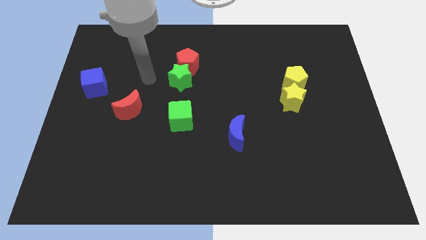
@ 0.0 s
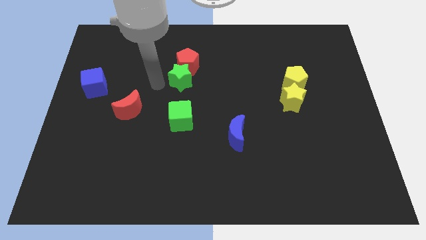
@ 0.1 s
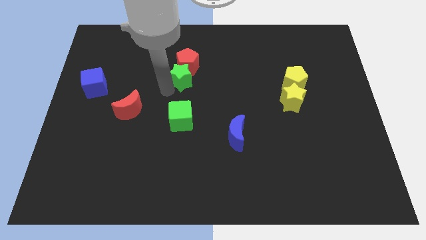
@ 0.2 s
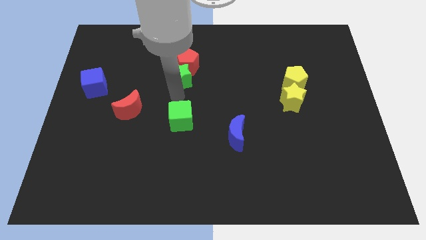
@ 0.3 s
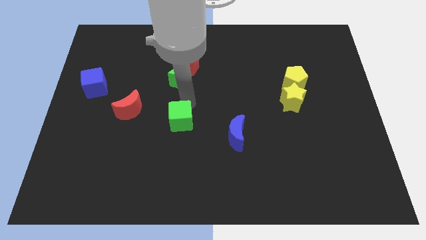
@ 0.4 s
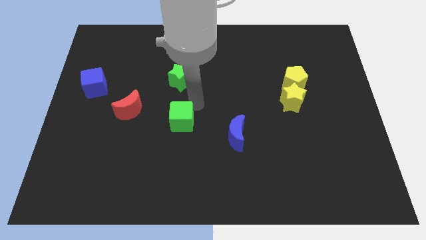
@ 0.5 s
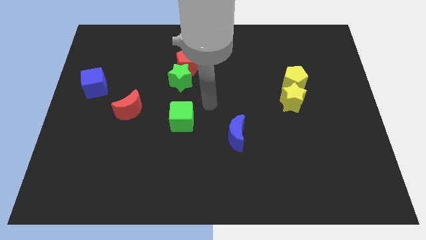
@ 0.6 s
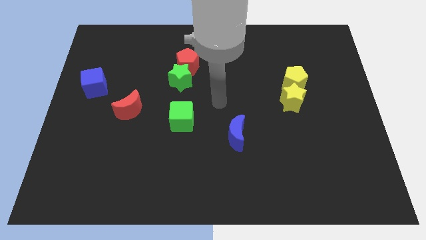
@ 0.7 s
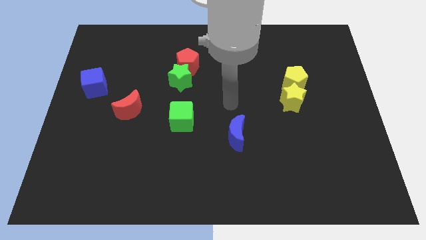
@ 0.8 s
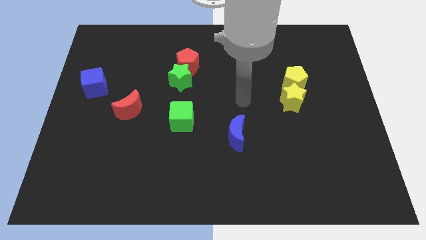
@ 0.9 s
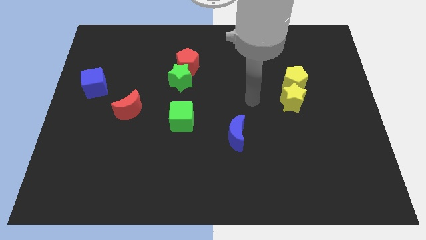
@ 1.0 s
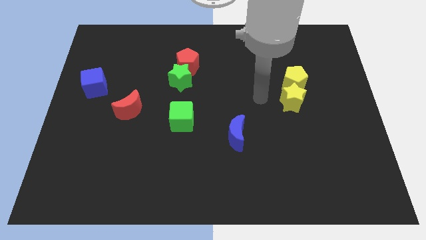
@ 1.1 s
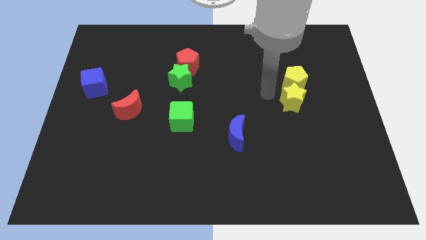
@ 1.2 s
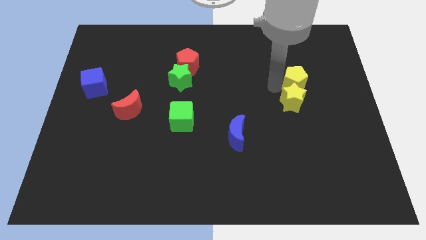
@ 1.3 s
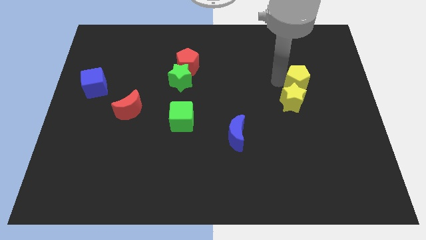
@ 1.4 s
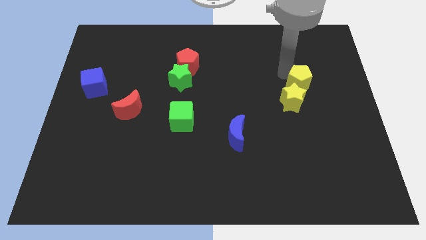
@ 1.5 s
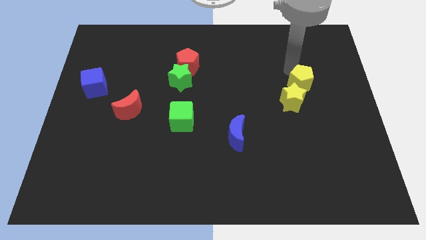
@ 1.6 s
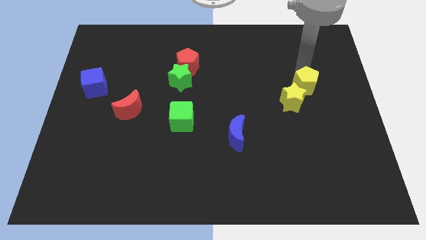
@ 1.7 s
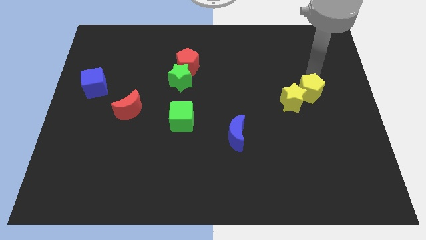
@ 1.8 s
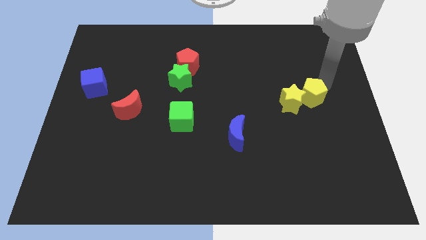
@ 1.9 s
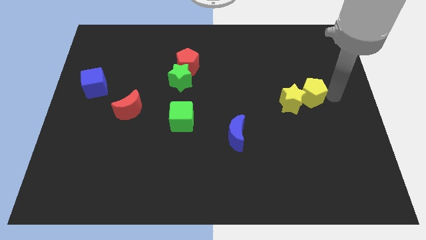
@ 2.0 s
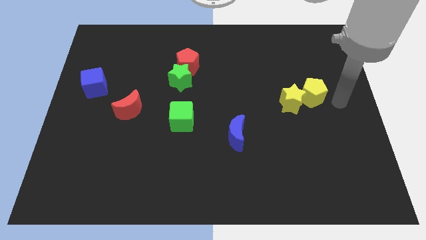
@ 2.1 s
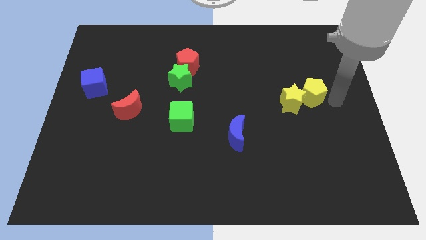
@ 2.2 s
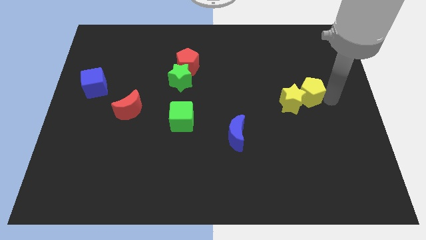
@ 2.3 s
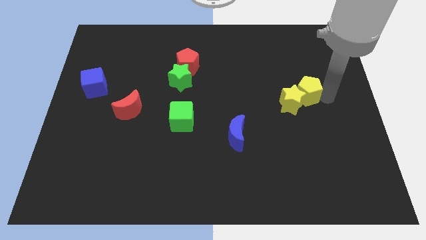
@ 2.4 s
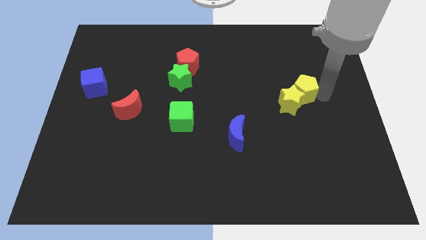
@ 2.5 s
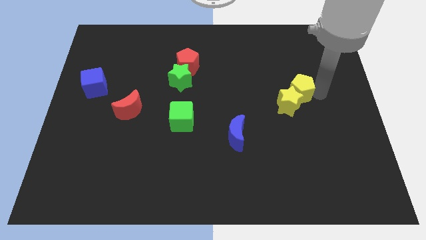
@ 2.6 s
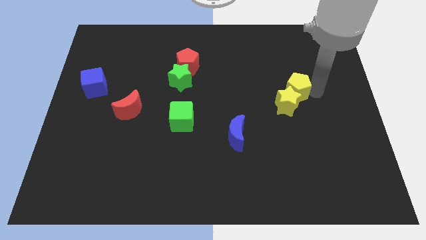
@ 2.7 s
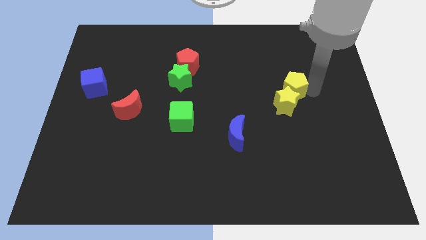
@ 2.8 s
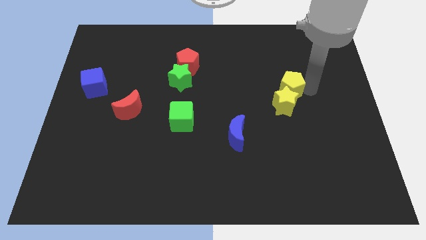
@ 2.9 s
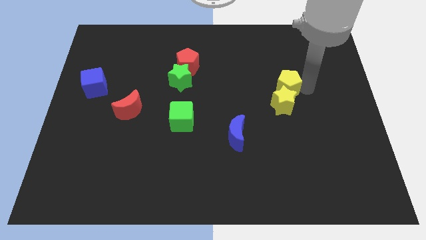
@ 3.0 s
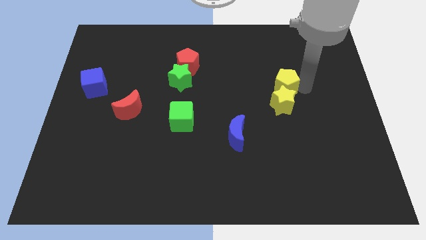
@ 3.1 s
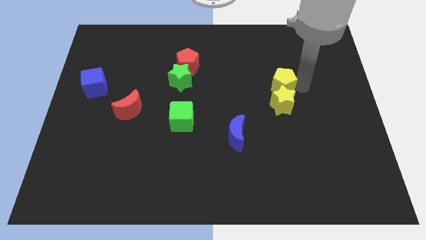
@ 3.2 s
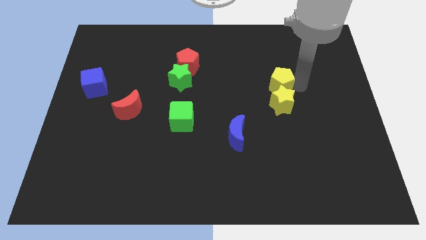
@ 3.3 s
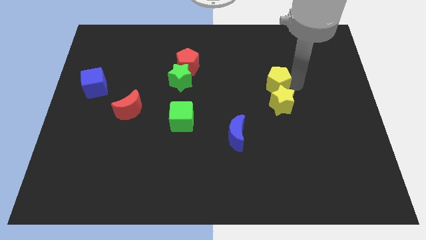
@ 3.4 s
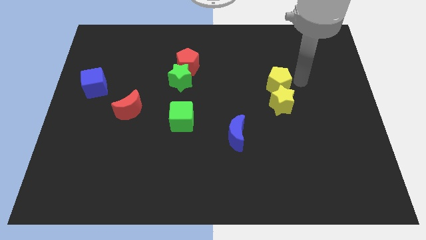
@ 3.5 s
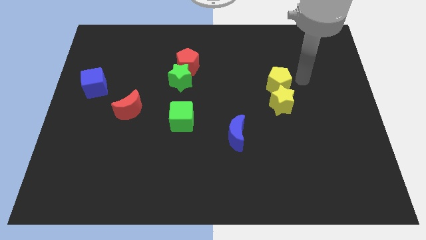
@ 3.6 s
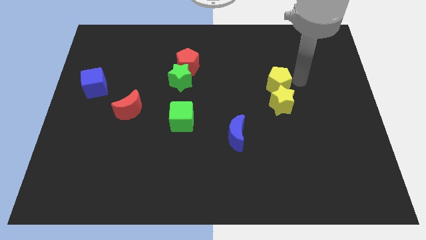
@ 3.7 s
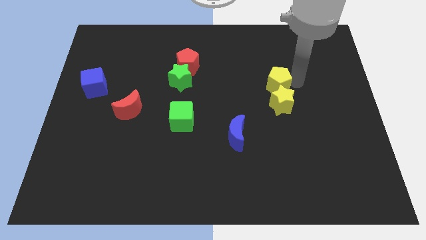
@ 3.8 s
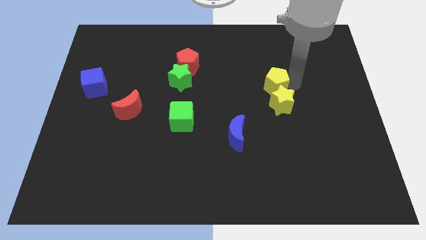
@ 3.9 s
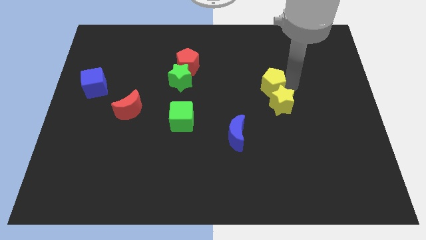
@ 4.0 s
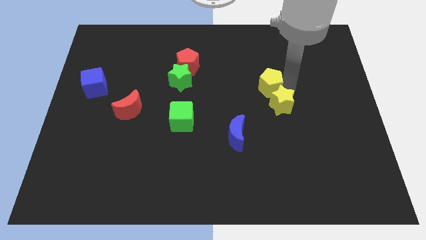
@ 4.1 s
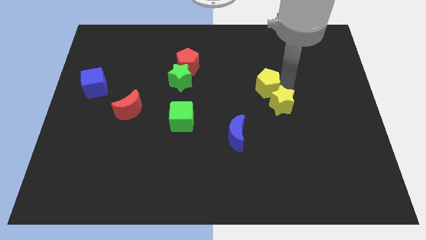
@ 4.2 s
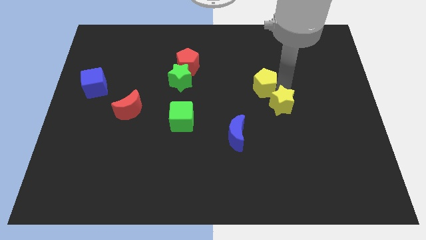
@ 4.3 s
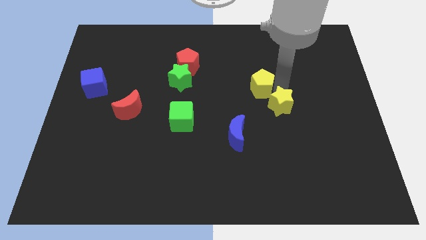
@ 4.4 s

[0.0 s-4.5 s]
slide the yellow pentagon to the middle

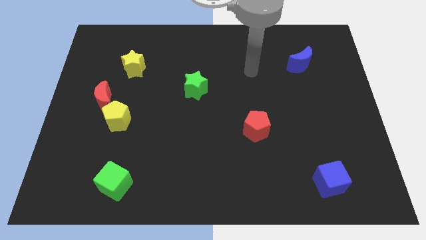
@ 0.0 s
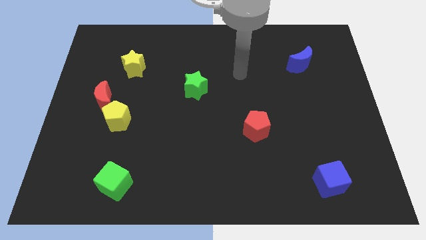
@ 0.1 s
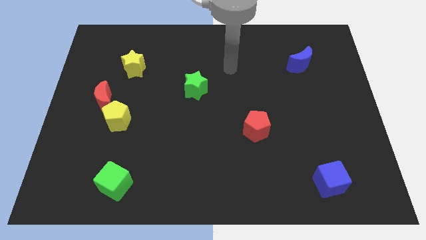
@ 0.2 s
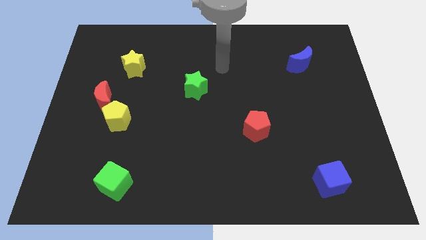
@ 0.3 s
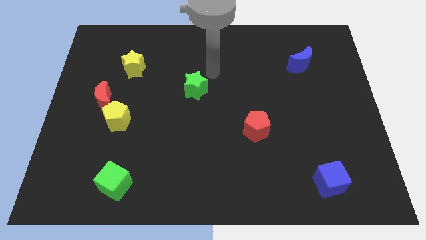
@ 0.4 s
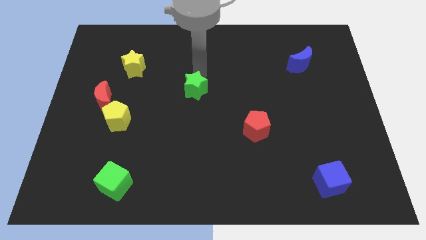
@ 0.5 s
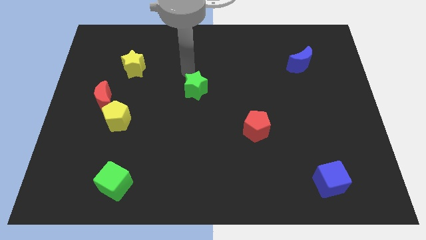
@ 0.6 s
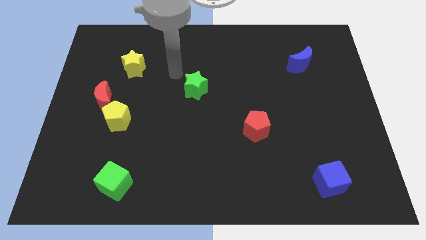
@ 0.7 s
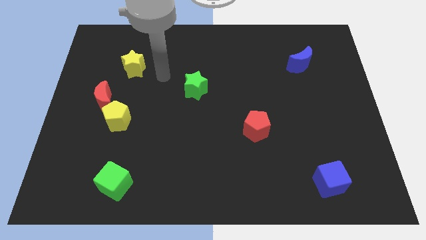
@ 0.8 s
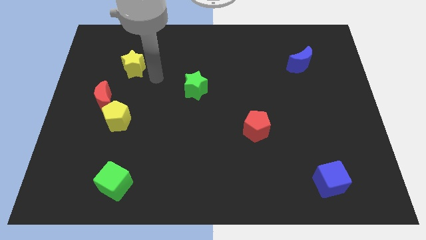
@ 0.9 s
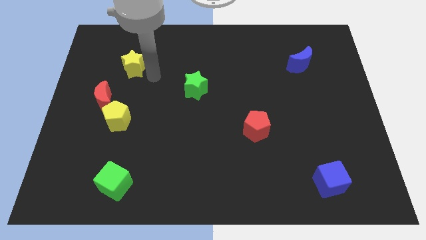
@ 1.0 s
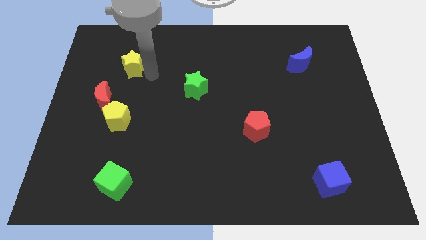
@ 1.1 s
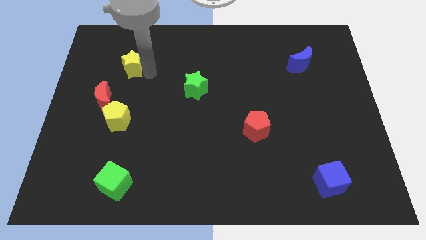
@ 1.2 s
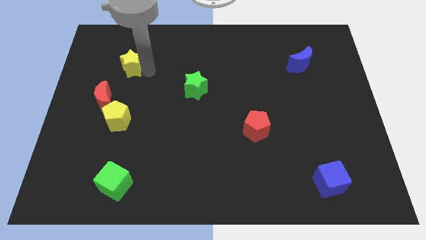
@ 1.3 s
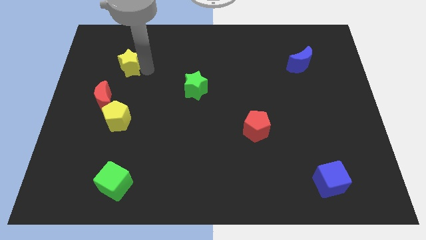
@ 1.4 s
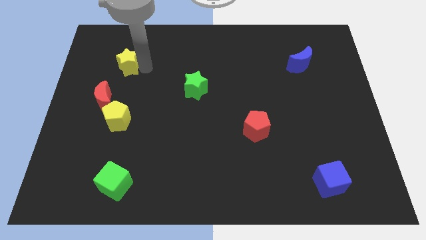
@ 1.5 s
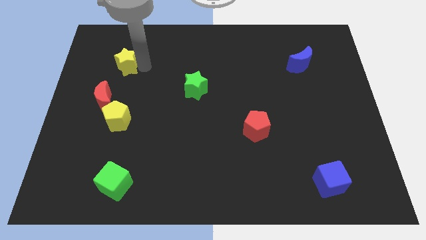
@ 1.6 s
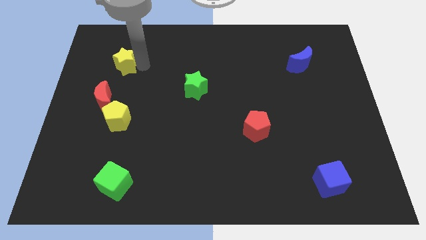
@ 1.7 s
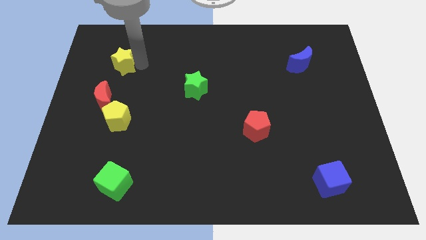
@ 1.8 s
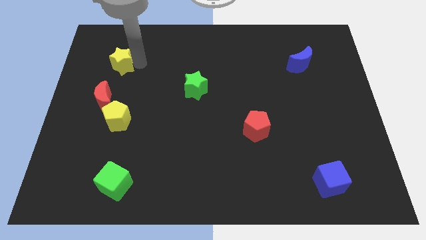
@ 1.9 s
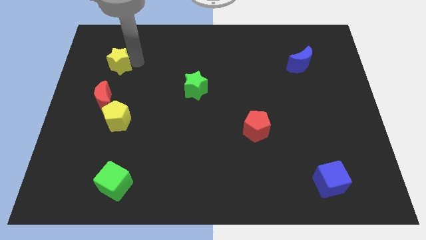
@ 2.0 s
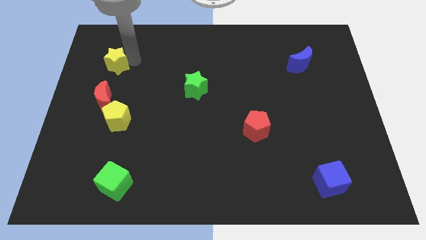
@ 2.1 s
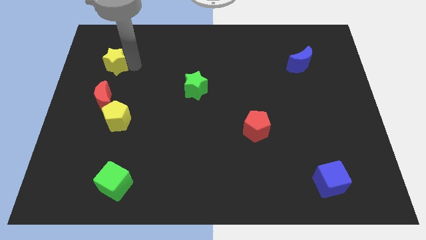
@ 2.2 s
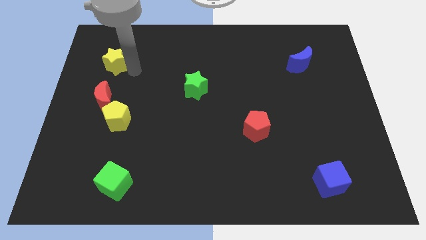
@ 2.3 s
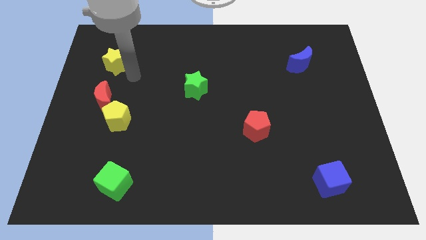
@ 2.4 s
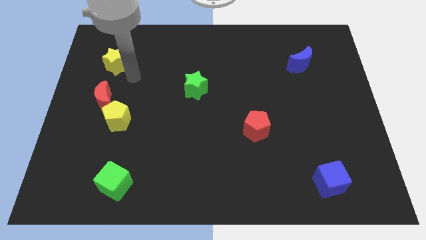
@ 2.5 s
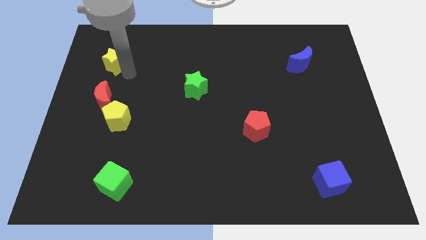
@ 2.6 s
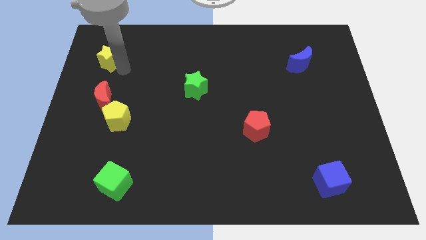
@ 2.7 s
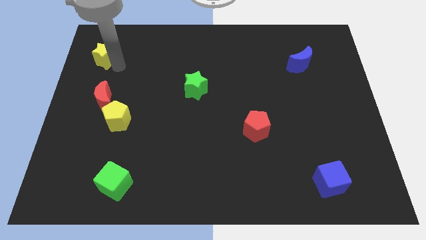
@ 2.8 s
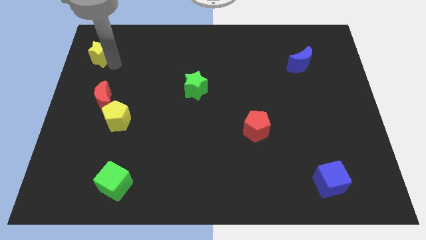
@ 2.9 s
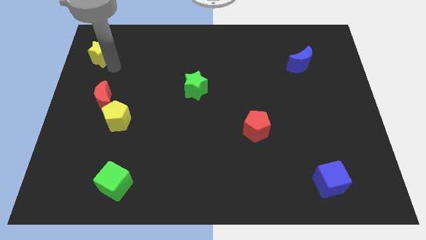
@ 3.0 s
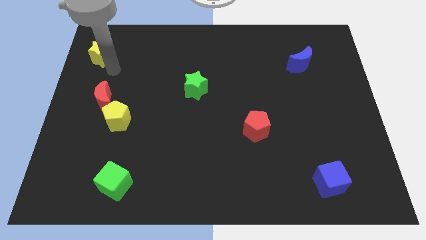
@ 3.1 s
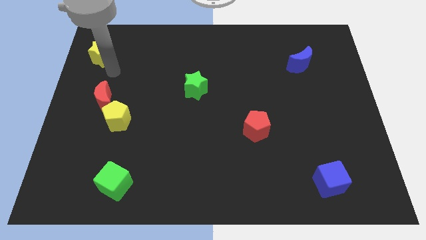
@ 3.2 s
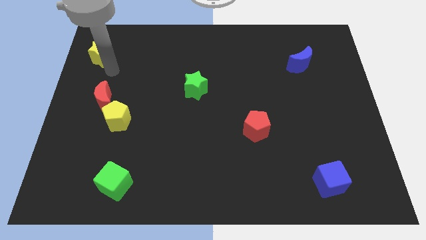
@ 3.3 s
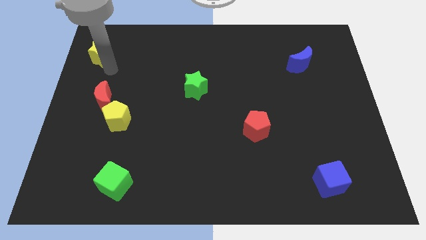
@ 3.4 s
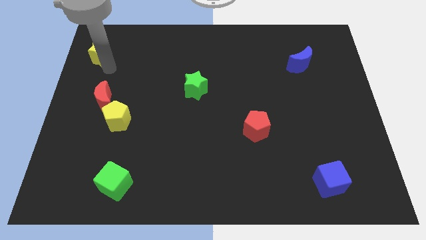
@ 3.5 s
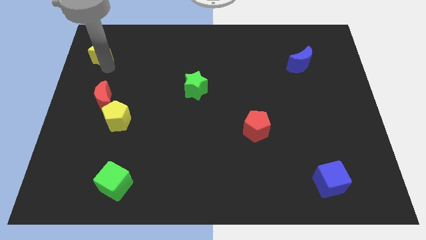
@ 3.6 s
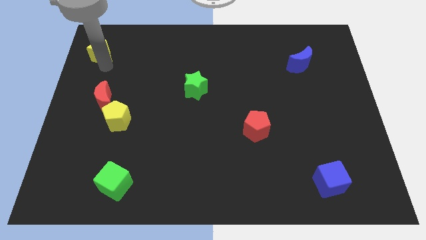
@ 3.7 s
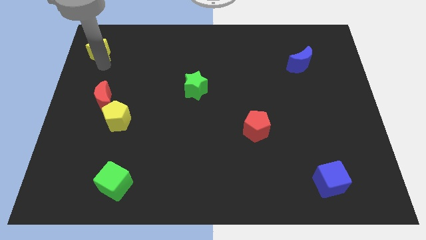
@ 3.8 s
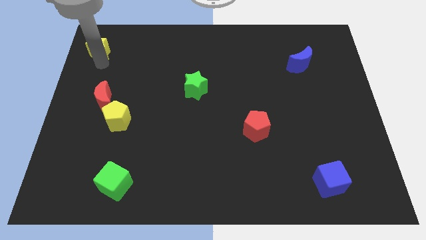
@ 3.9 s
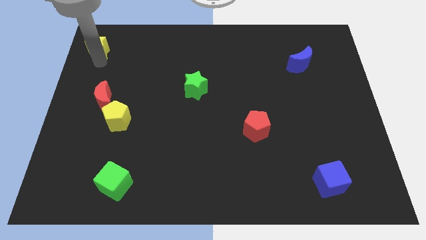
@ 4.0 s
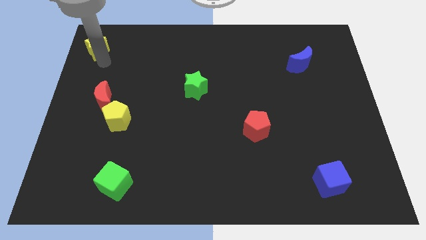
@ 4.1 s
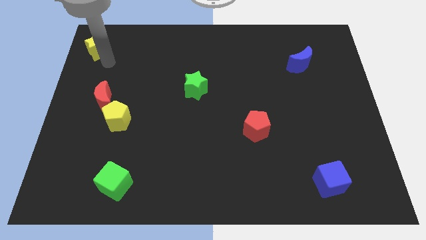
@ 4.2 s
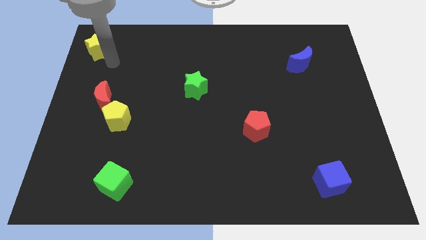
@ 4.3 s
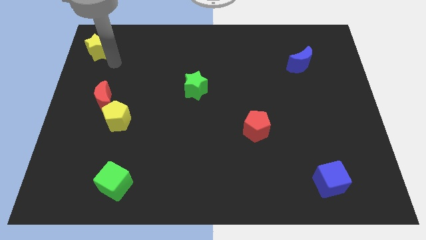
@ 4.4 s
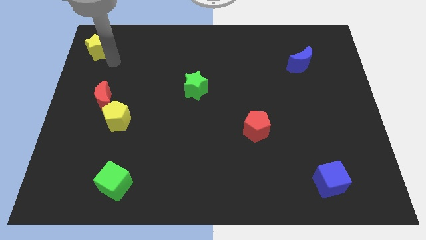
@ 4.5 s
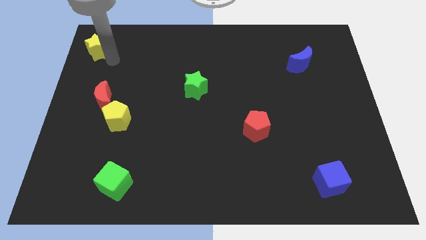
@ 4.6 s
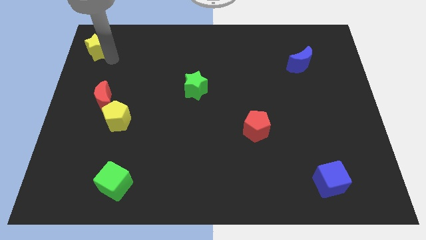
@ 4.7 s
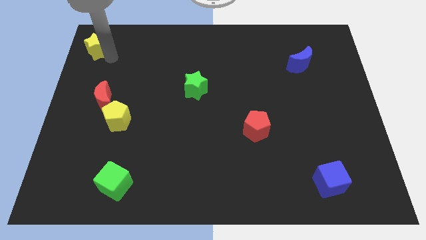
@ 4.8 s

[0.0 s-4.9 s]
move the yellow star to the top left corner
